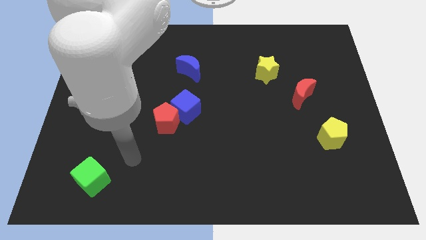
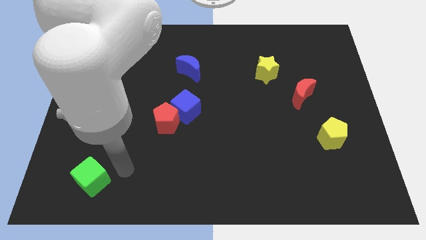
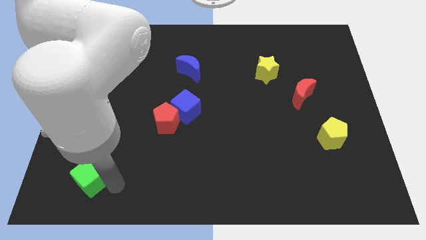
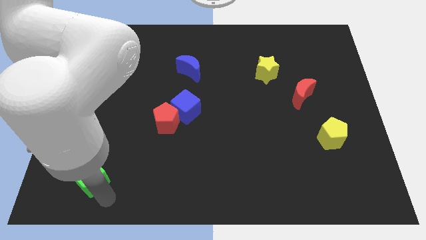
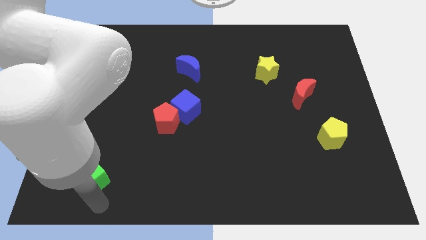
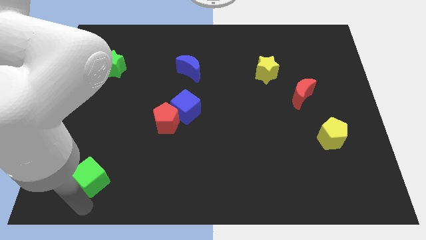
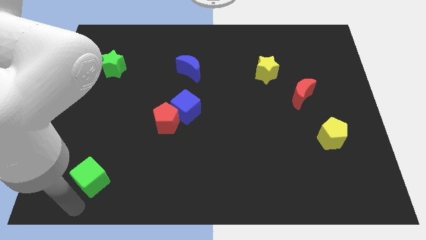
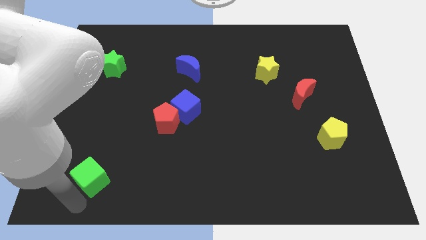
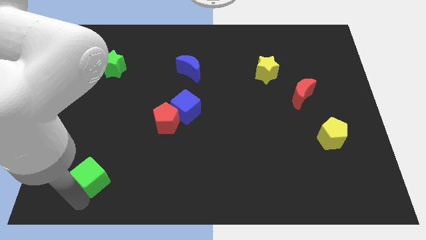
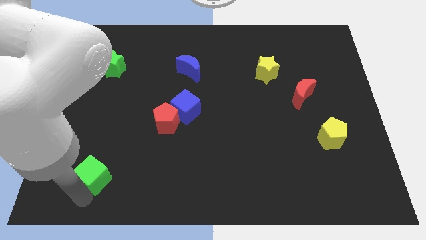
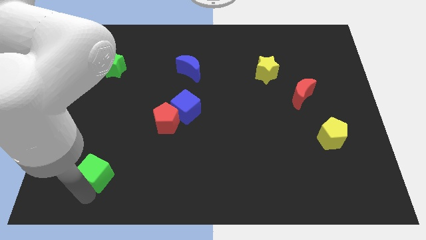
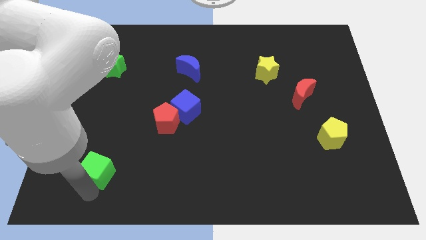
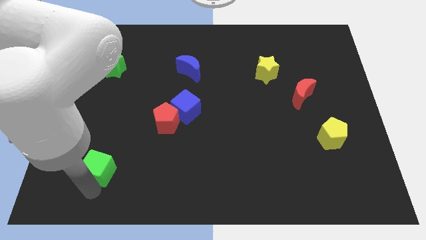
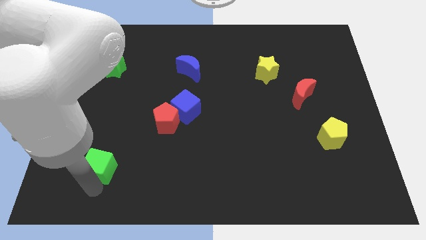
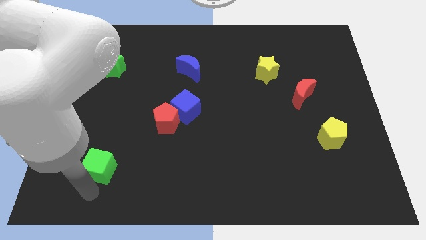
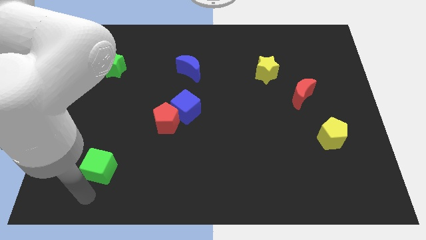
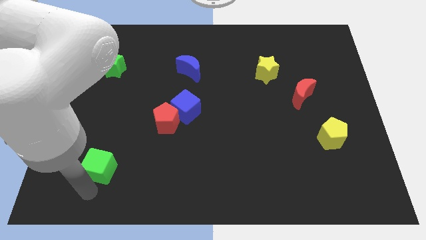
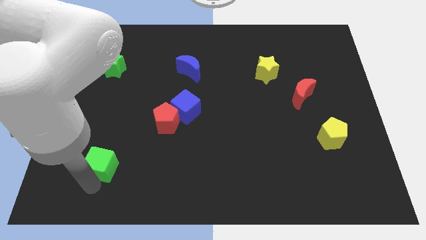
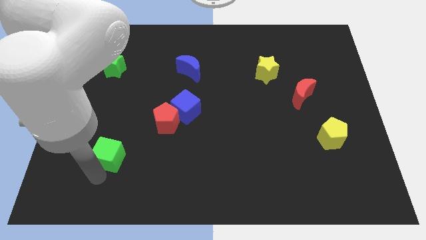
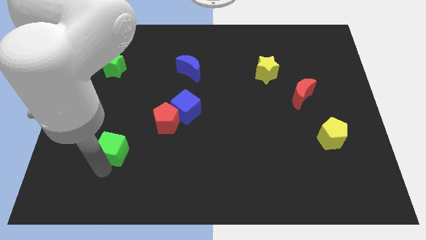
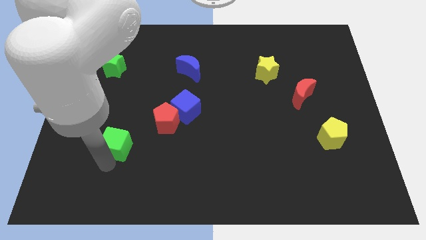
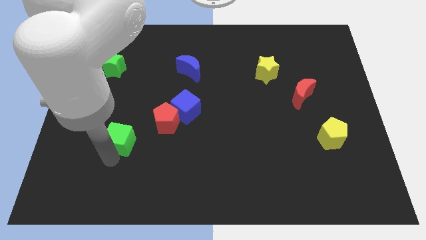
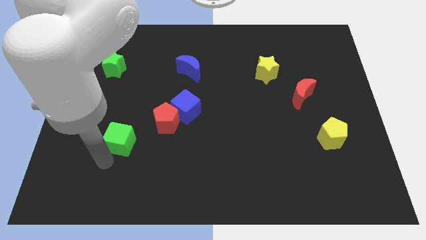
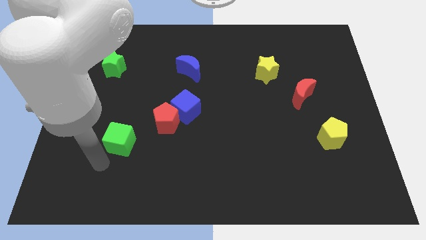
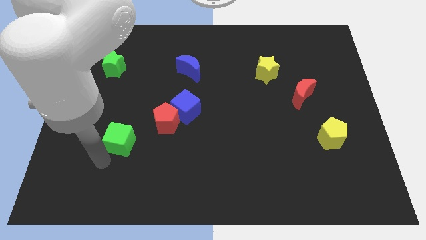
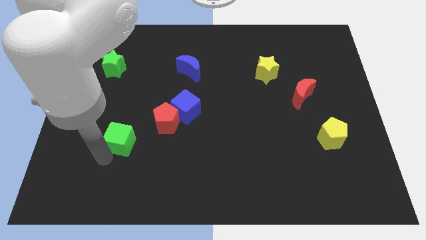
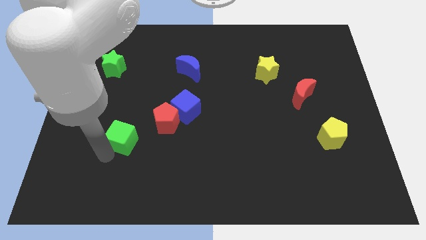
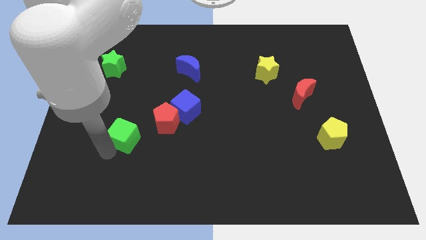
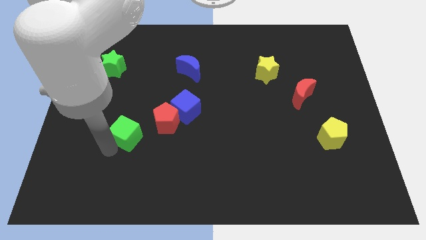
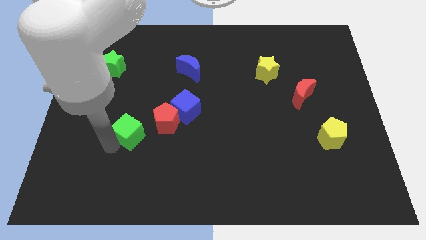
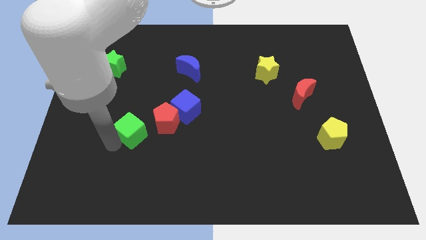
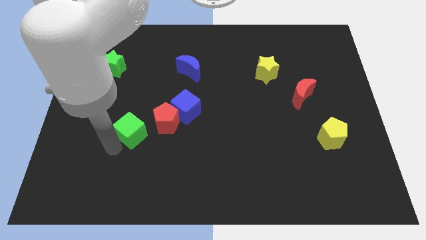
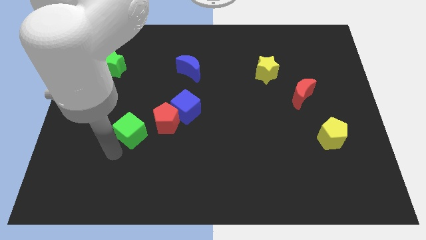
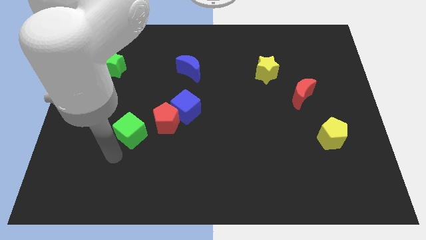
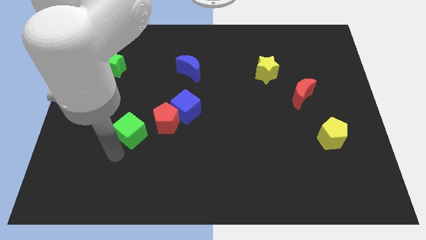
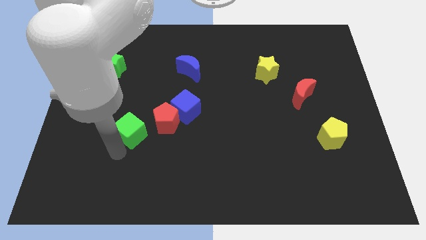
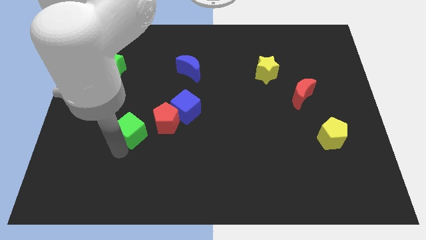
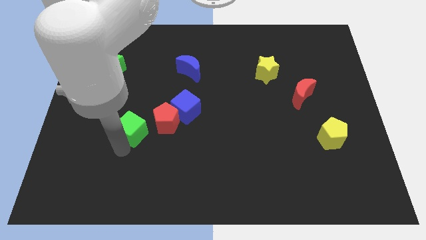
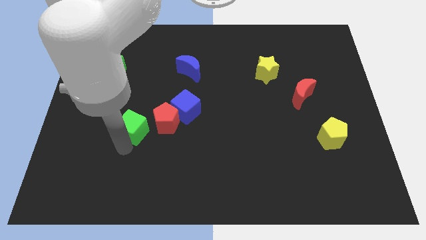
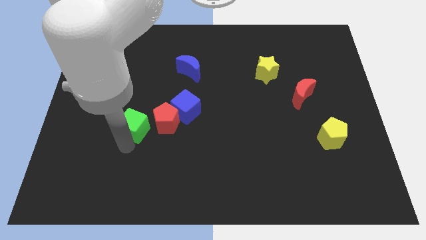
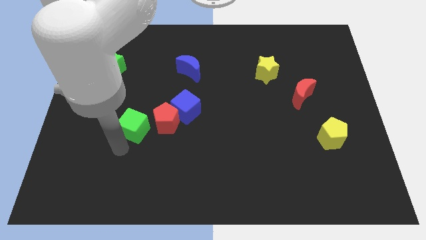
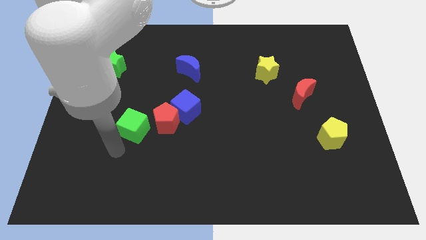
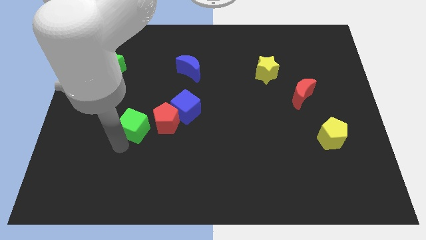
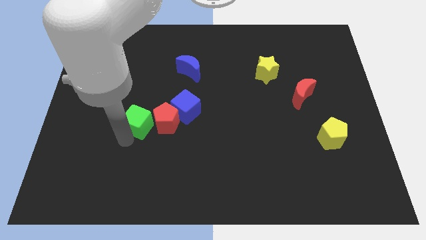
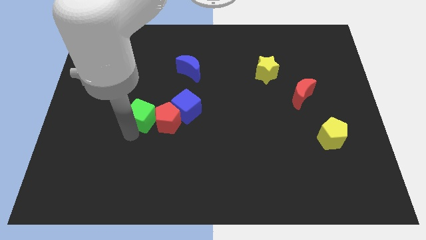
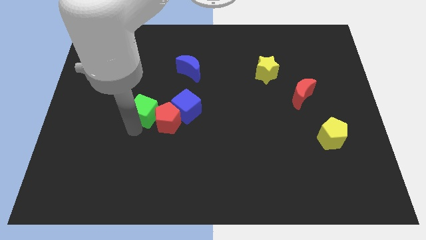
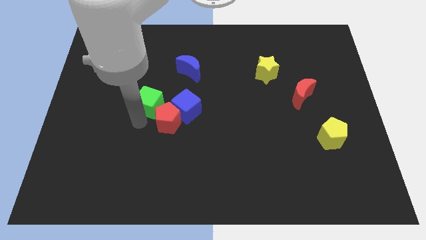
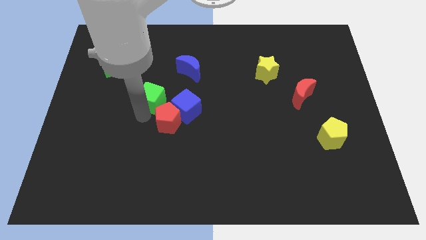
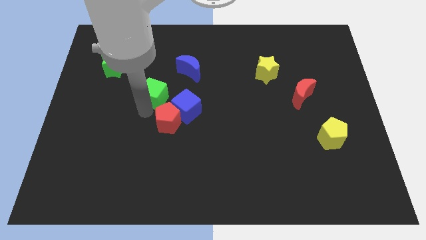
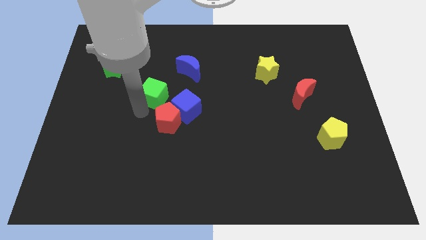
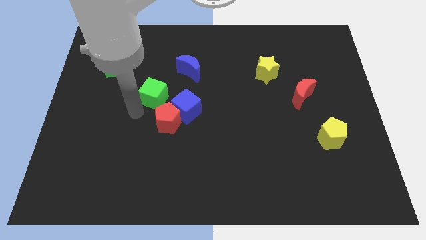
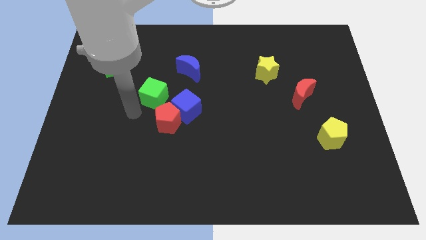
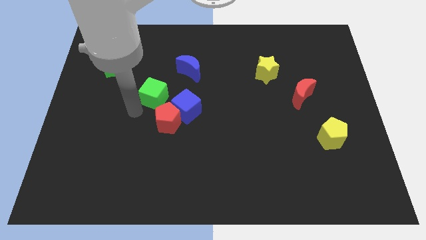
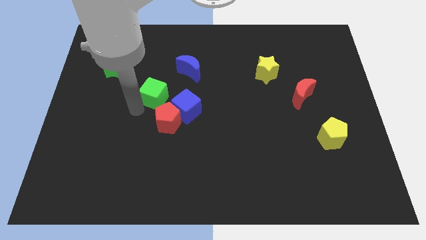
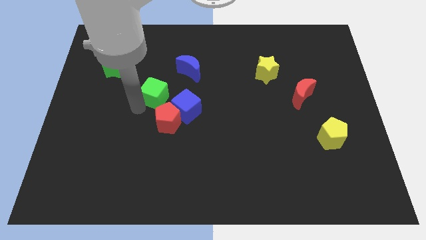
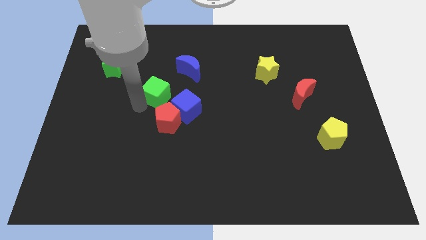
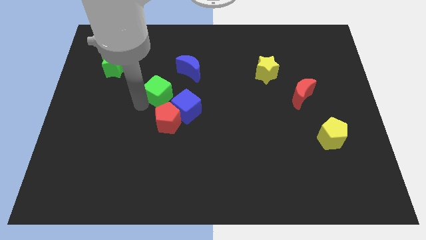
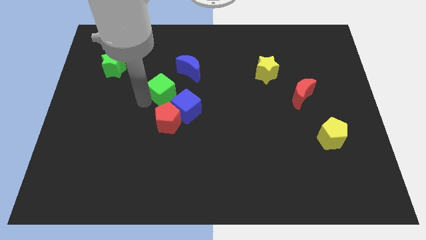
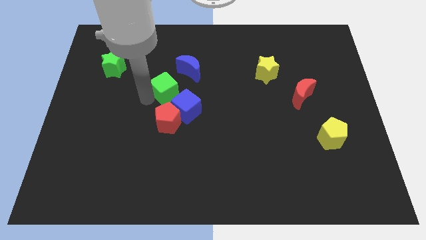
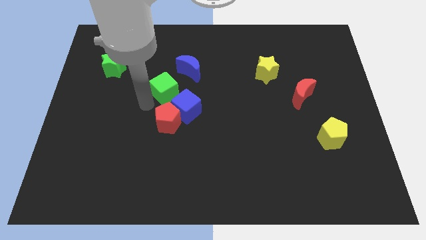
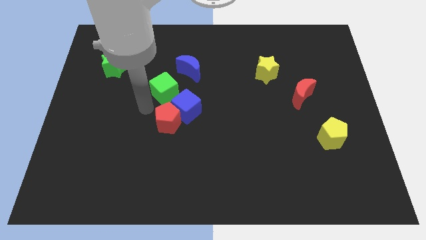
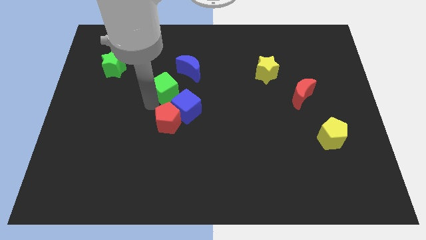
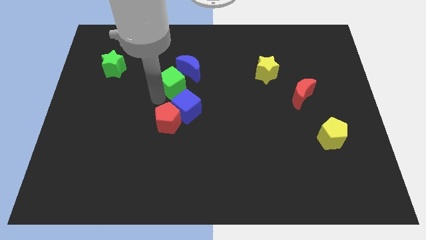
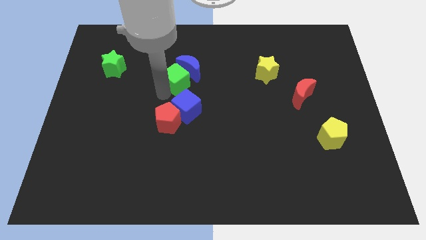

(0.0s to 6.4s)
slide the green cube towards the blue moon
